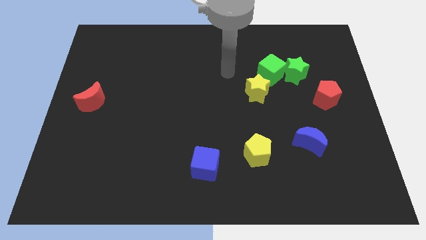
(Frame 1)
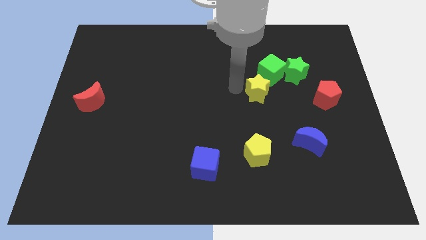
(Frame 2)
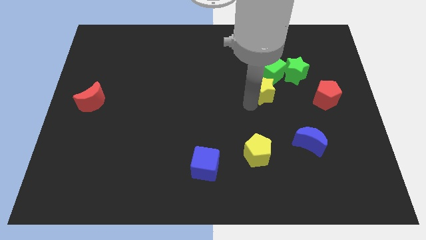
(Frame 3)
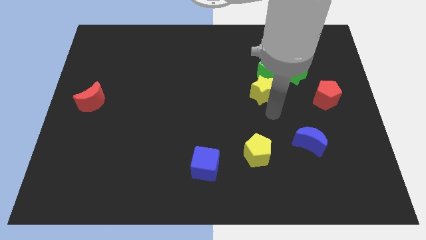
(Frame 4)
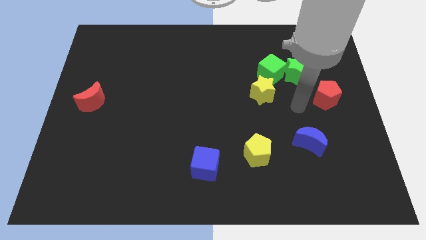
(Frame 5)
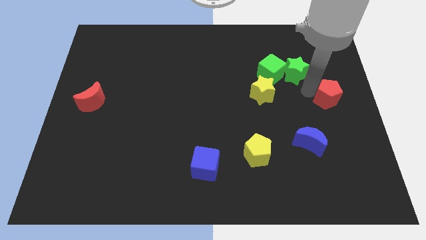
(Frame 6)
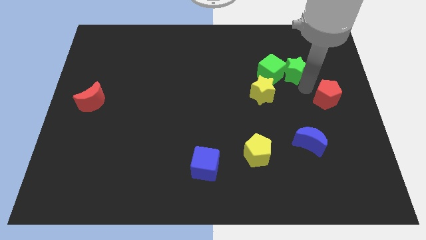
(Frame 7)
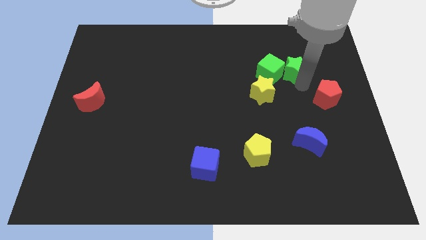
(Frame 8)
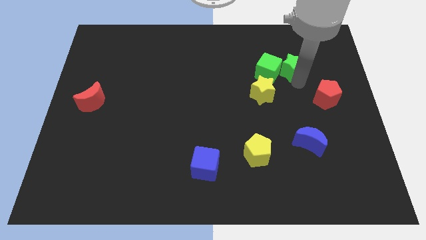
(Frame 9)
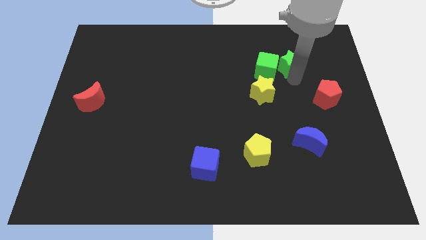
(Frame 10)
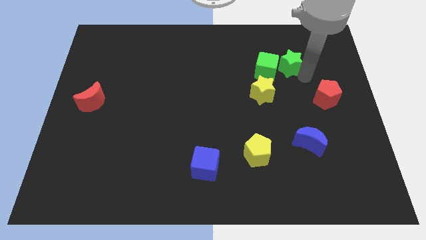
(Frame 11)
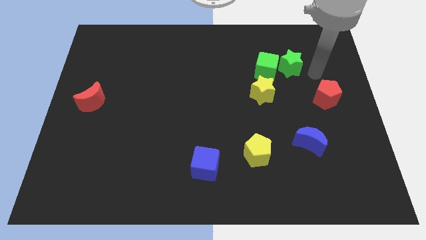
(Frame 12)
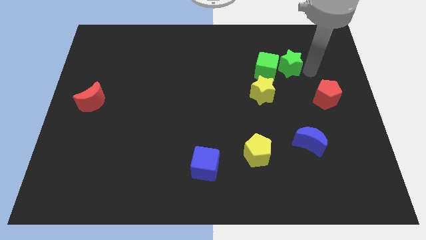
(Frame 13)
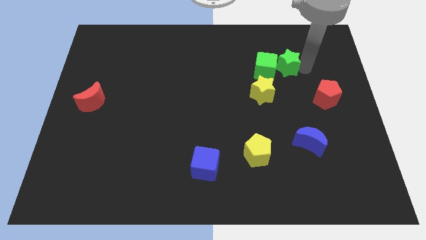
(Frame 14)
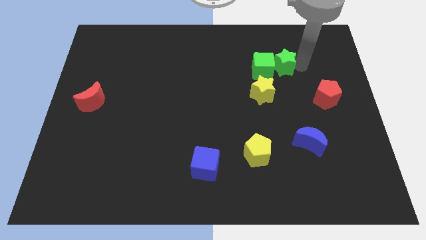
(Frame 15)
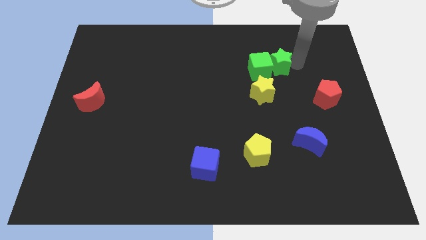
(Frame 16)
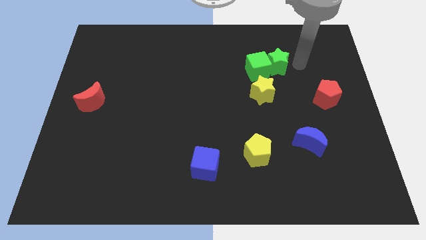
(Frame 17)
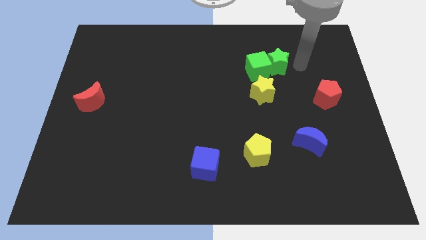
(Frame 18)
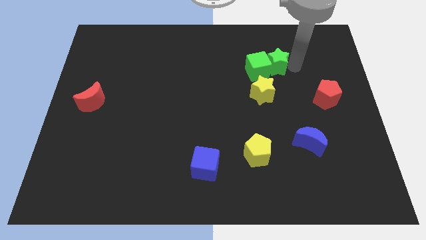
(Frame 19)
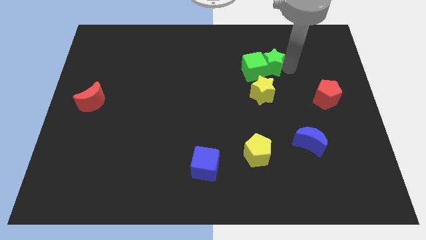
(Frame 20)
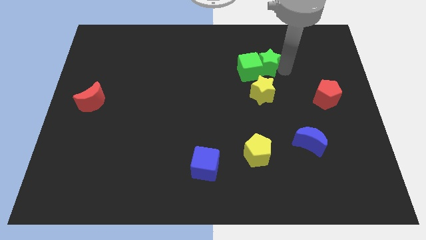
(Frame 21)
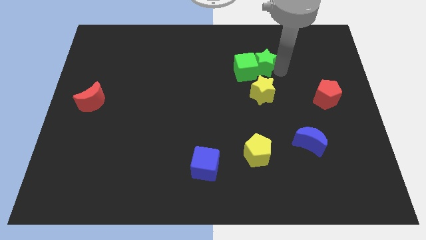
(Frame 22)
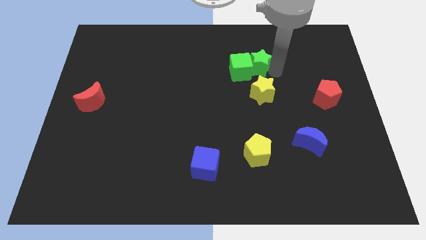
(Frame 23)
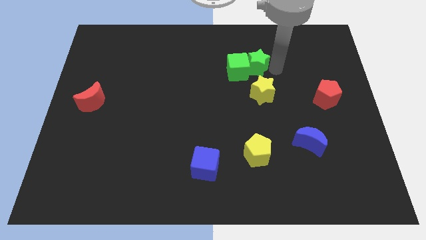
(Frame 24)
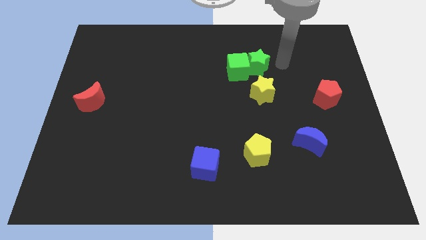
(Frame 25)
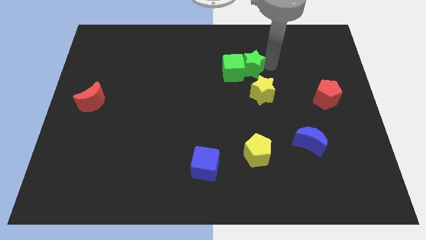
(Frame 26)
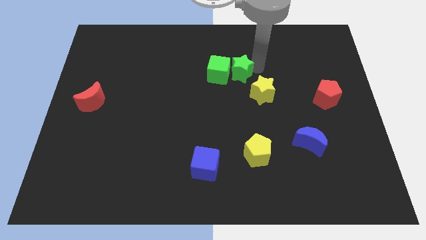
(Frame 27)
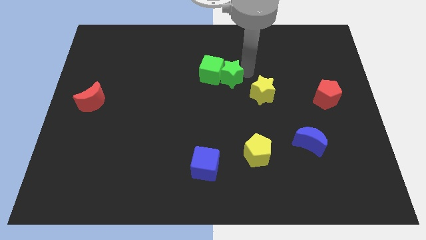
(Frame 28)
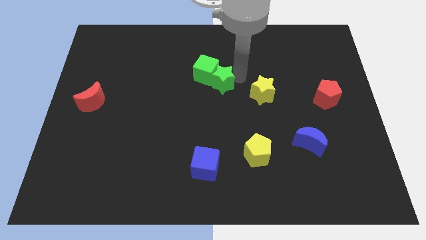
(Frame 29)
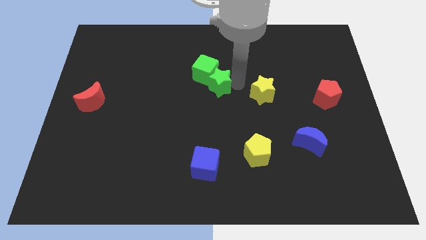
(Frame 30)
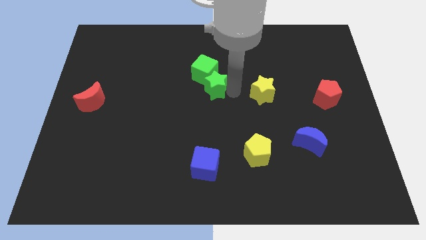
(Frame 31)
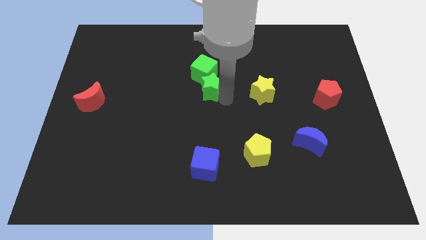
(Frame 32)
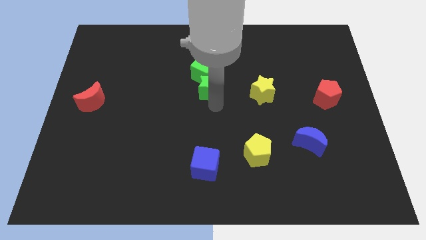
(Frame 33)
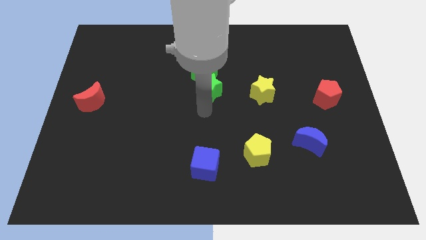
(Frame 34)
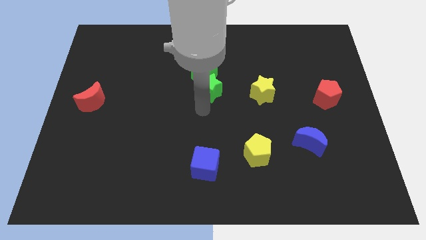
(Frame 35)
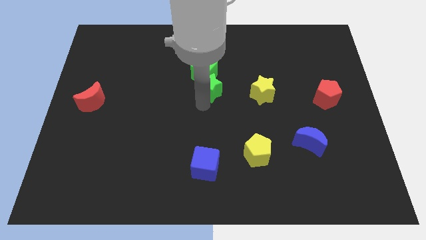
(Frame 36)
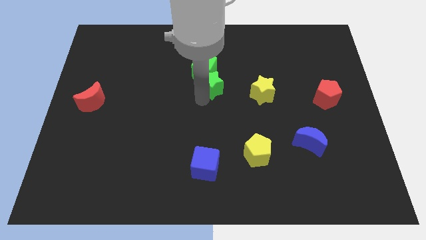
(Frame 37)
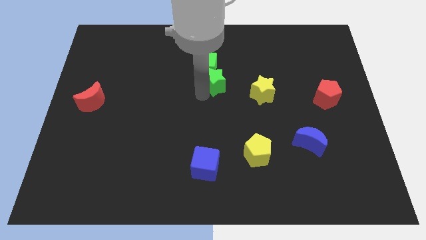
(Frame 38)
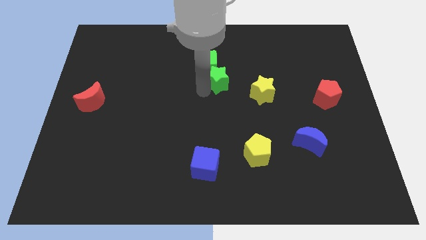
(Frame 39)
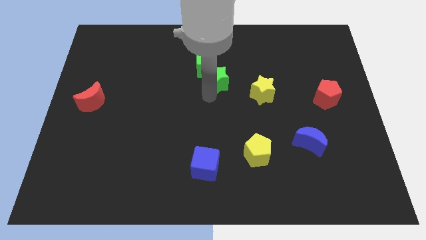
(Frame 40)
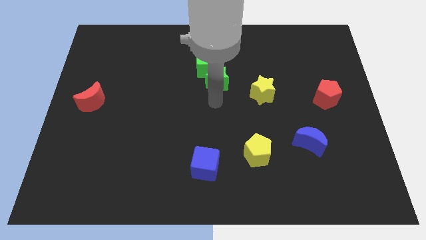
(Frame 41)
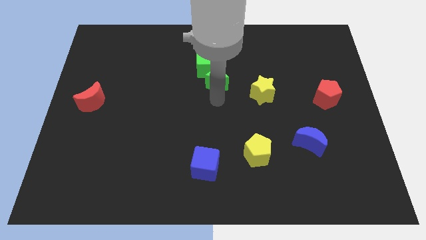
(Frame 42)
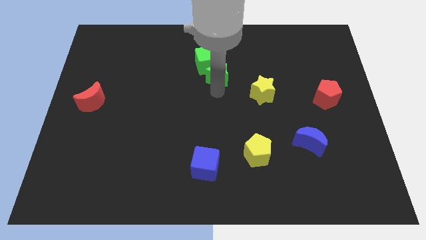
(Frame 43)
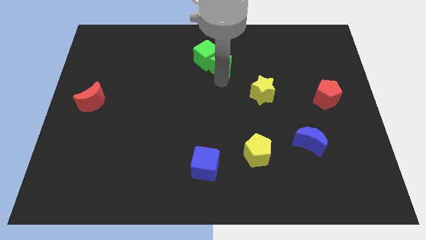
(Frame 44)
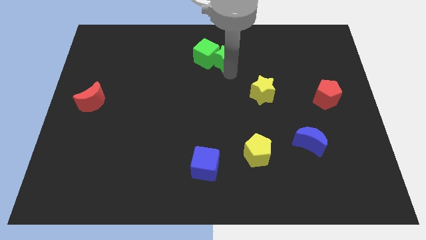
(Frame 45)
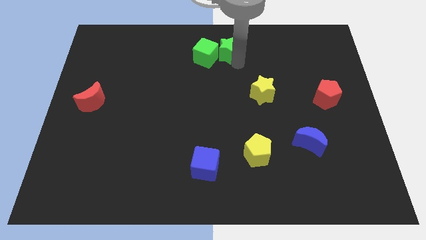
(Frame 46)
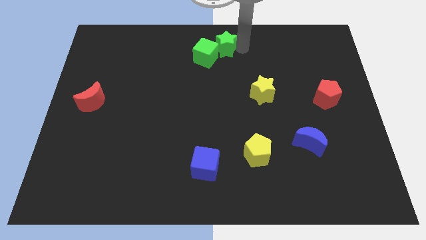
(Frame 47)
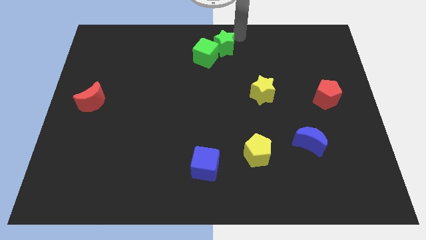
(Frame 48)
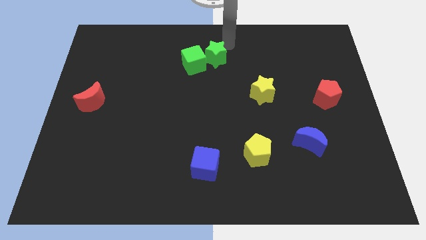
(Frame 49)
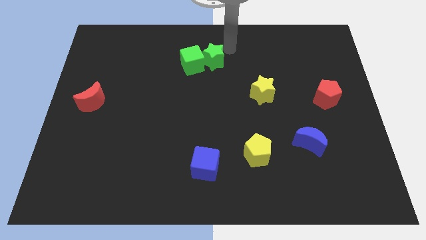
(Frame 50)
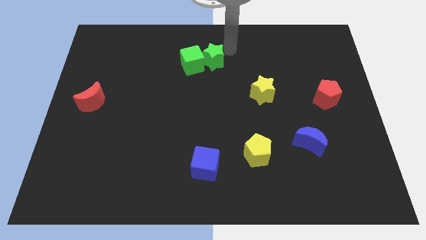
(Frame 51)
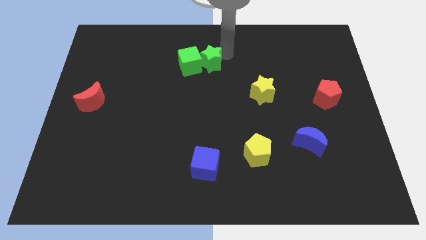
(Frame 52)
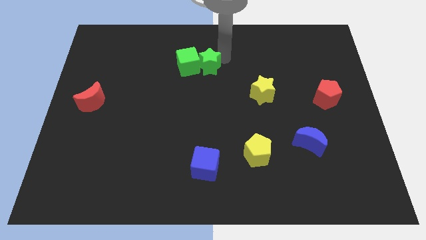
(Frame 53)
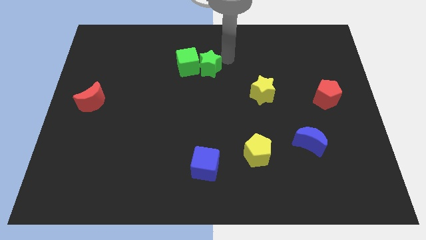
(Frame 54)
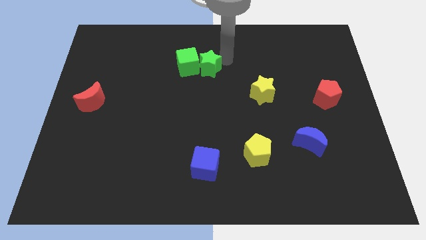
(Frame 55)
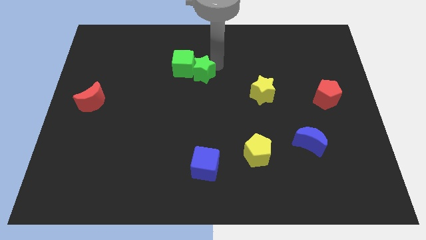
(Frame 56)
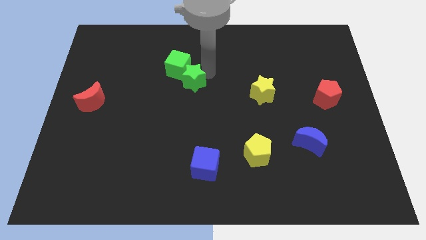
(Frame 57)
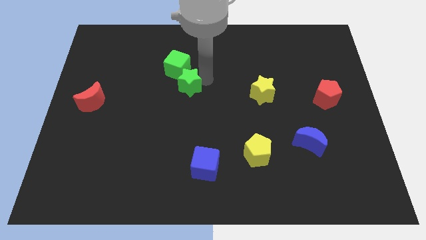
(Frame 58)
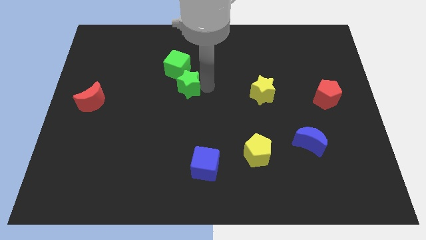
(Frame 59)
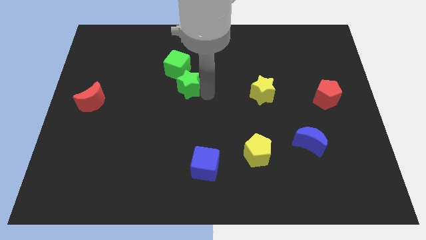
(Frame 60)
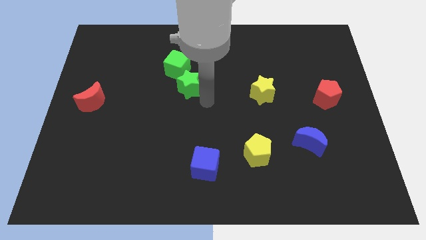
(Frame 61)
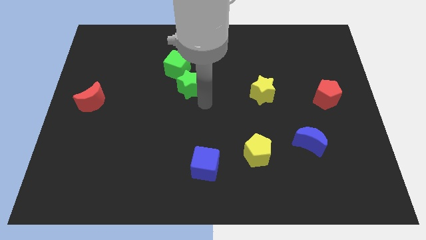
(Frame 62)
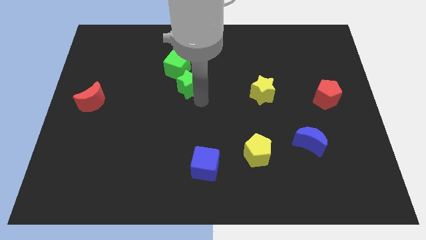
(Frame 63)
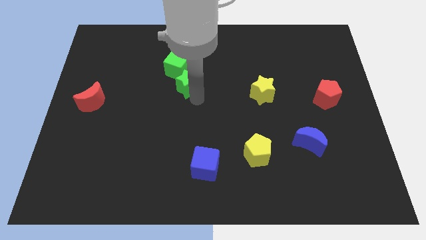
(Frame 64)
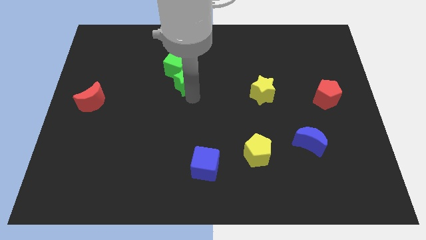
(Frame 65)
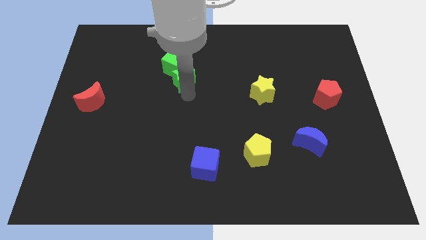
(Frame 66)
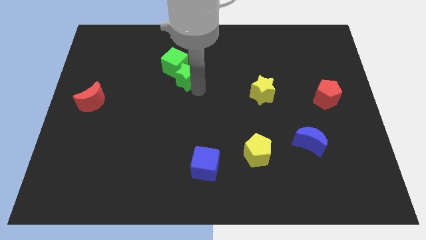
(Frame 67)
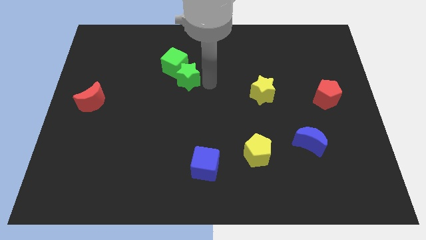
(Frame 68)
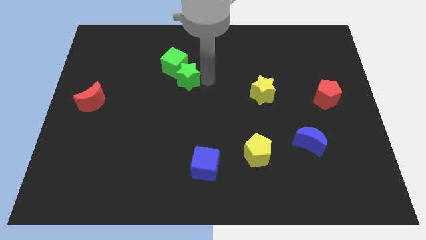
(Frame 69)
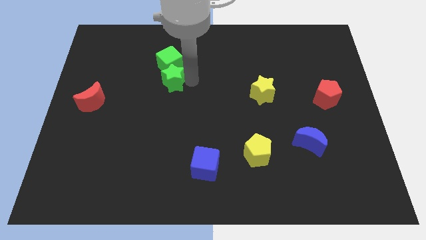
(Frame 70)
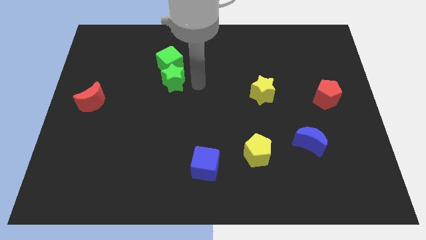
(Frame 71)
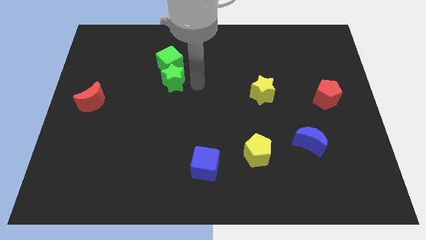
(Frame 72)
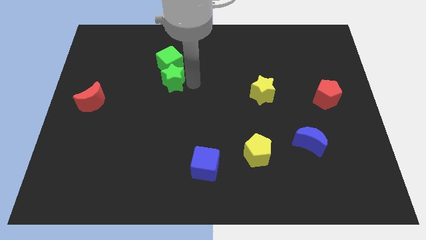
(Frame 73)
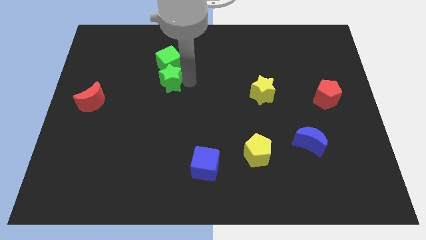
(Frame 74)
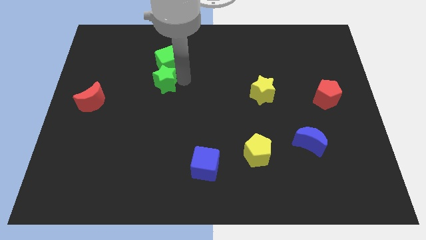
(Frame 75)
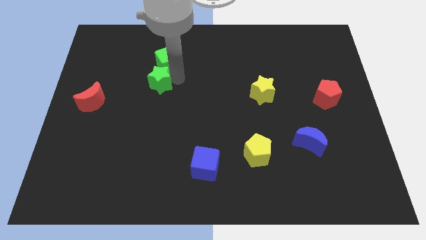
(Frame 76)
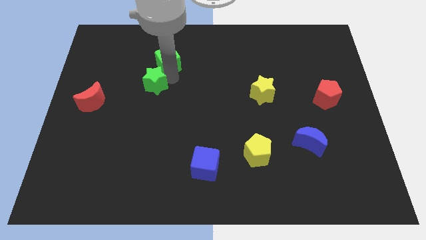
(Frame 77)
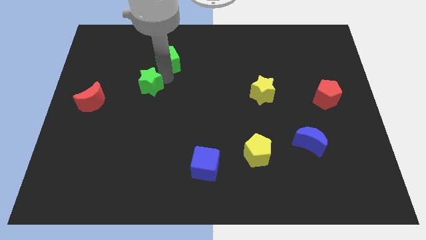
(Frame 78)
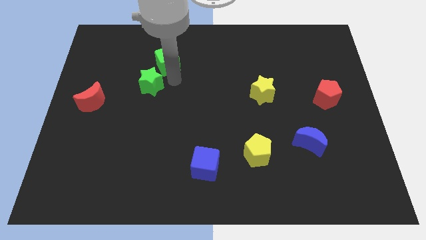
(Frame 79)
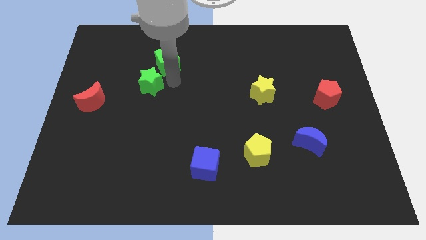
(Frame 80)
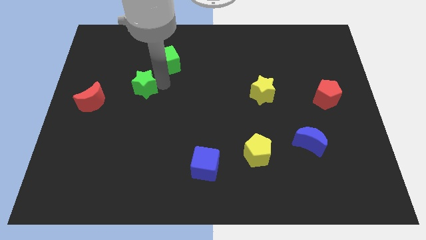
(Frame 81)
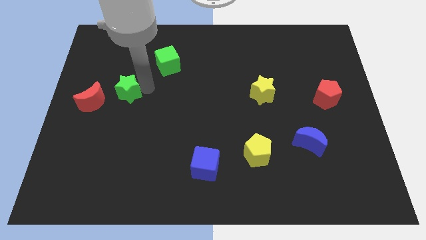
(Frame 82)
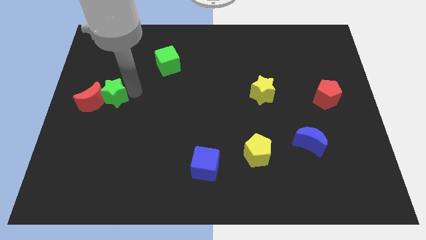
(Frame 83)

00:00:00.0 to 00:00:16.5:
move the green star towards the red moon
